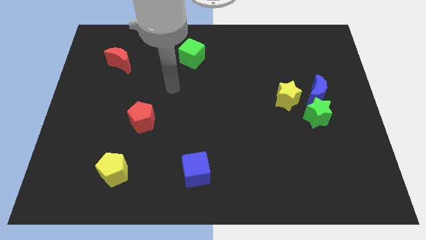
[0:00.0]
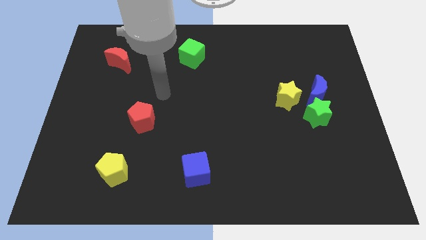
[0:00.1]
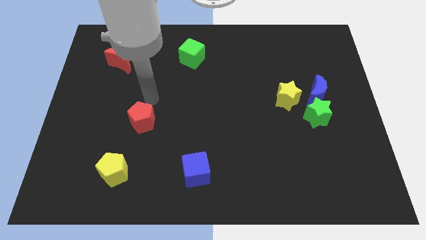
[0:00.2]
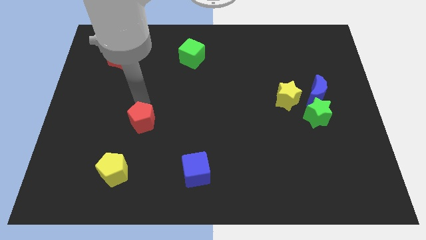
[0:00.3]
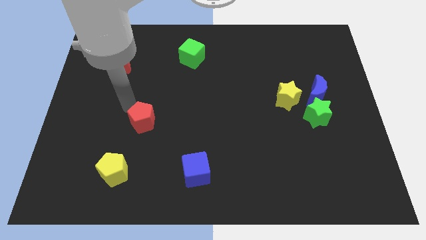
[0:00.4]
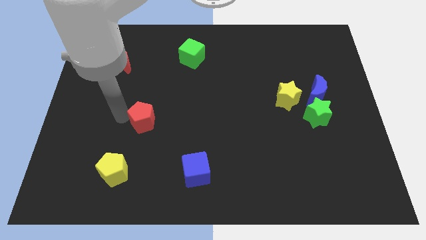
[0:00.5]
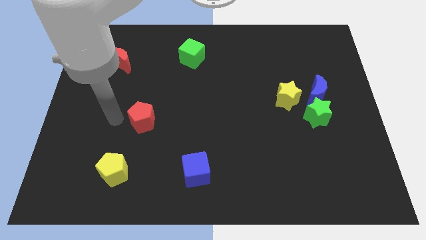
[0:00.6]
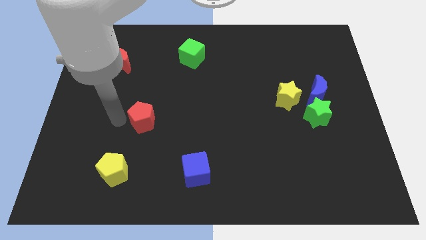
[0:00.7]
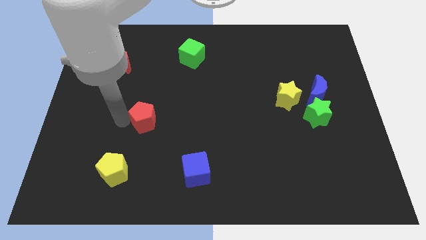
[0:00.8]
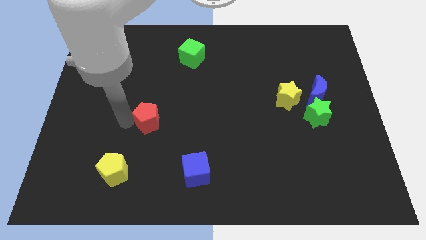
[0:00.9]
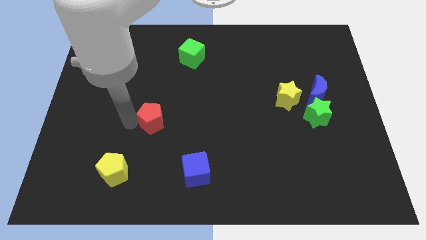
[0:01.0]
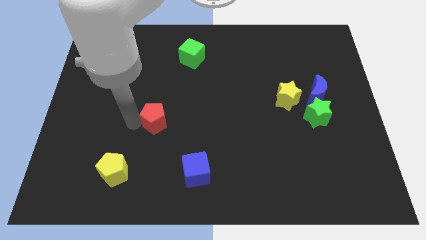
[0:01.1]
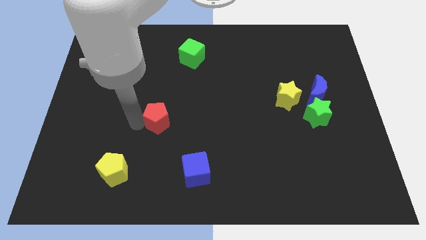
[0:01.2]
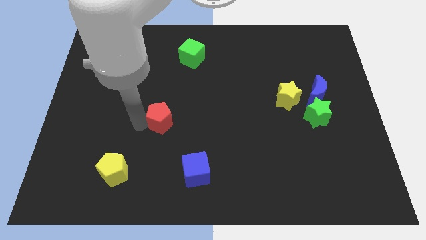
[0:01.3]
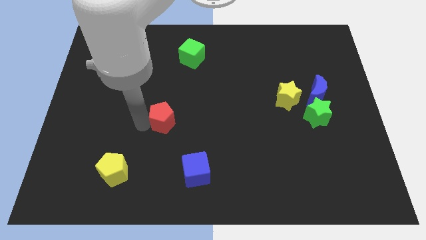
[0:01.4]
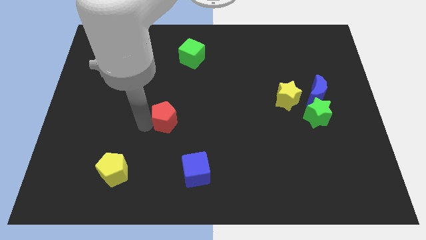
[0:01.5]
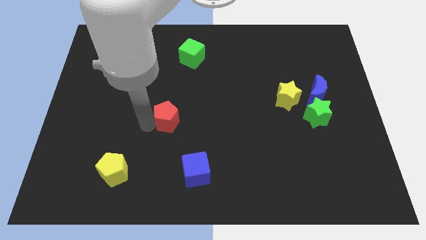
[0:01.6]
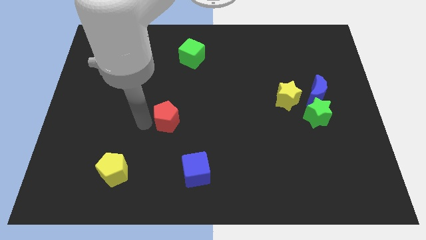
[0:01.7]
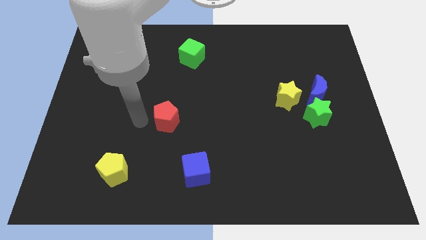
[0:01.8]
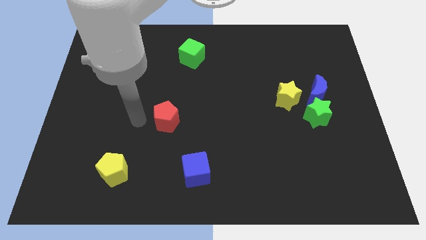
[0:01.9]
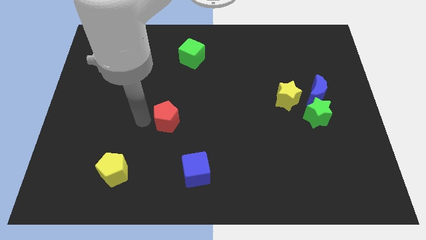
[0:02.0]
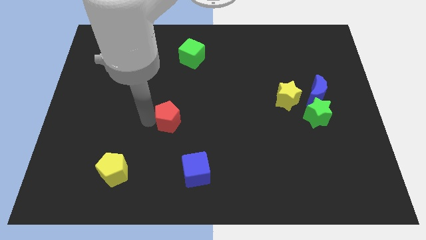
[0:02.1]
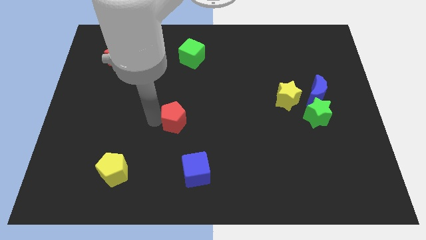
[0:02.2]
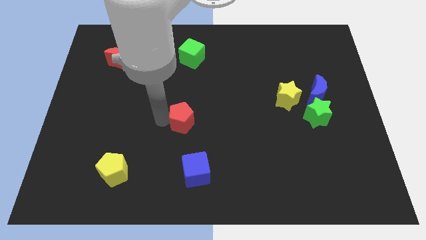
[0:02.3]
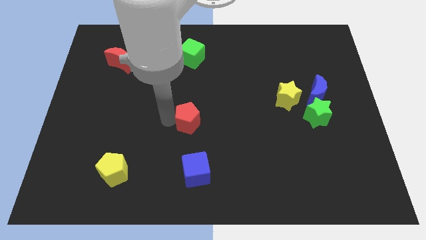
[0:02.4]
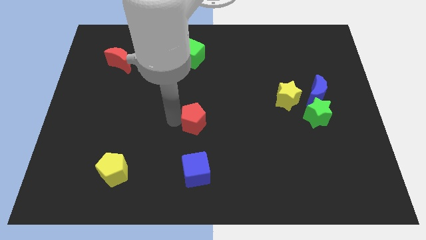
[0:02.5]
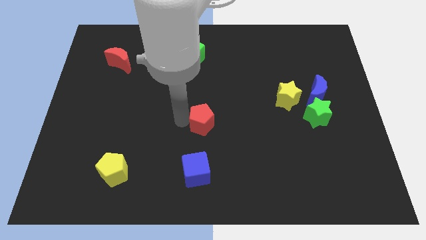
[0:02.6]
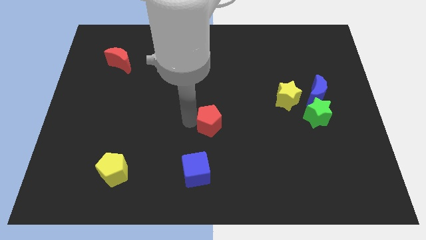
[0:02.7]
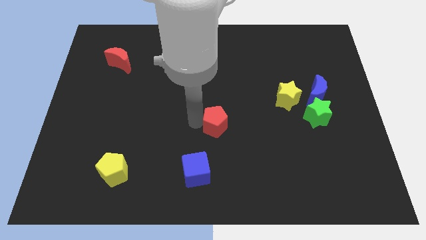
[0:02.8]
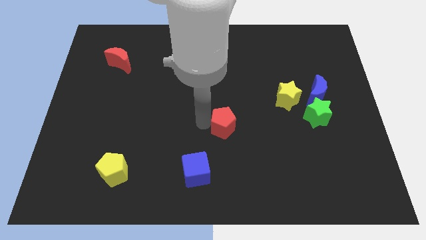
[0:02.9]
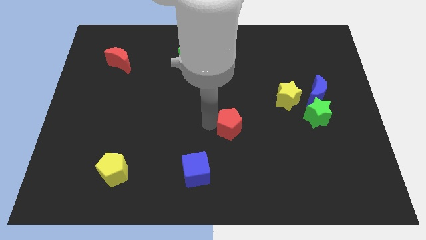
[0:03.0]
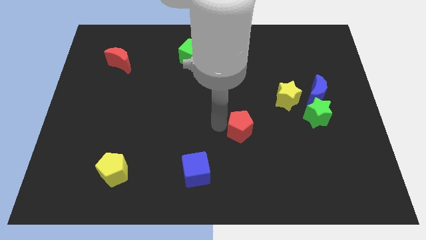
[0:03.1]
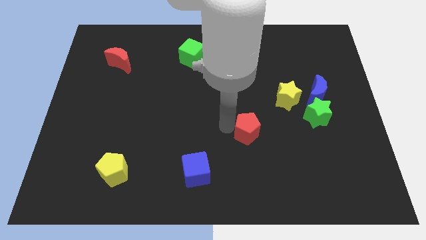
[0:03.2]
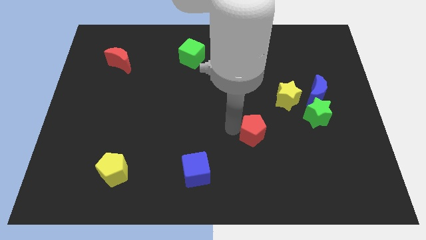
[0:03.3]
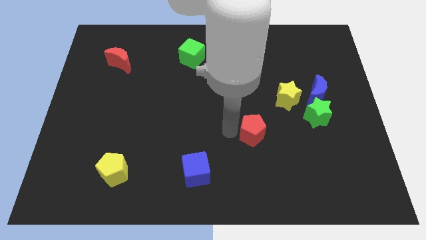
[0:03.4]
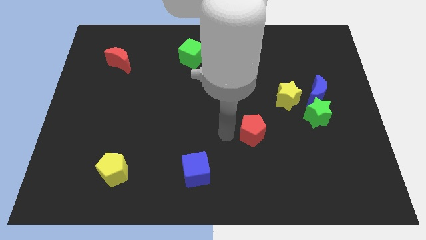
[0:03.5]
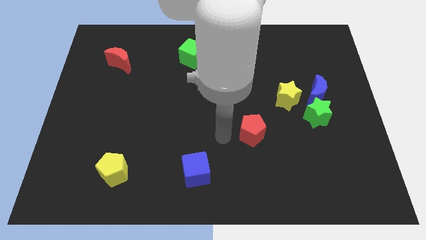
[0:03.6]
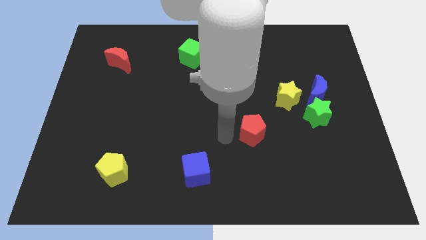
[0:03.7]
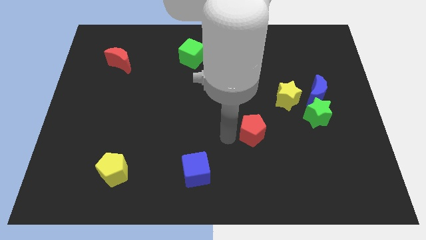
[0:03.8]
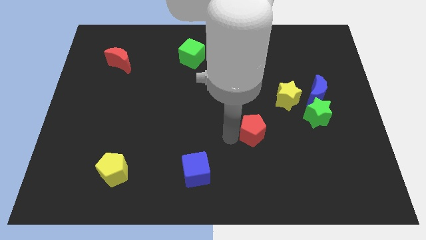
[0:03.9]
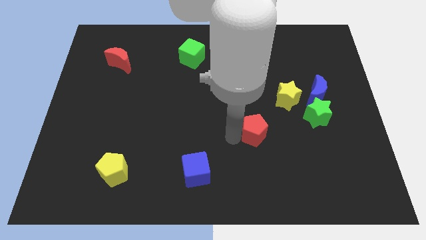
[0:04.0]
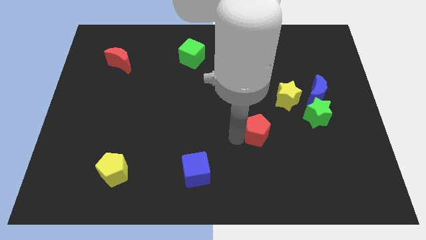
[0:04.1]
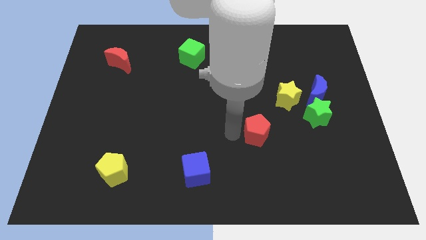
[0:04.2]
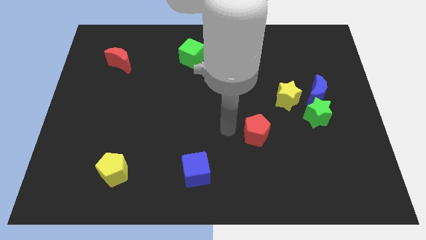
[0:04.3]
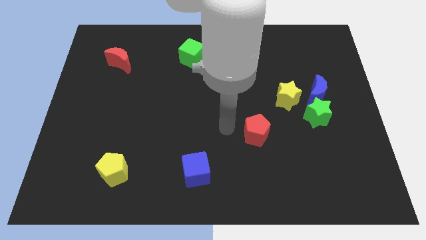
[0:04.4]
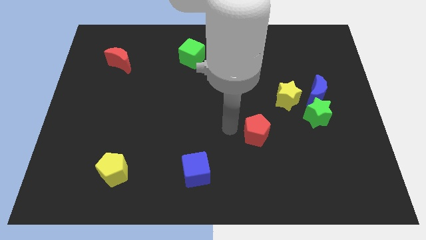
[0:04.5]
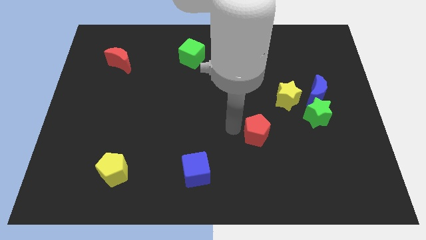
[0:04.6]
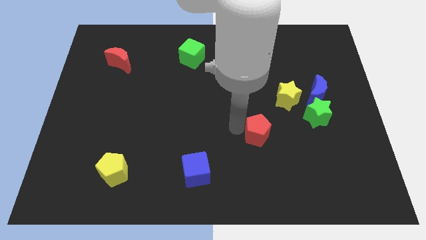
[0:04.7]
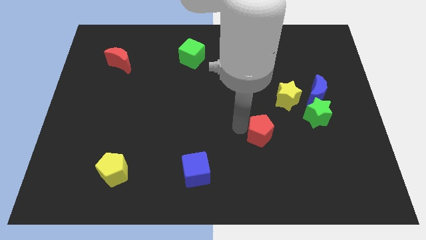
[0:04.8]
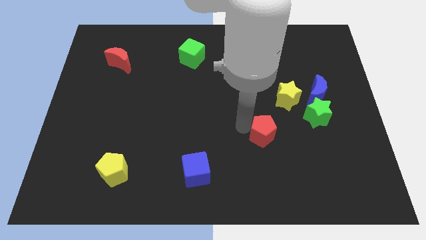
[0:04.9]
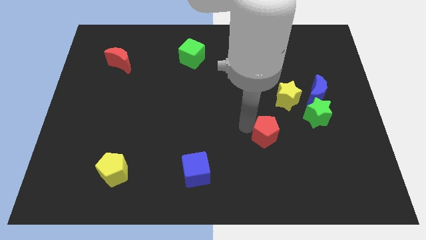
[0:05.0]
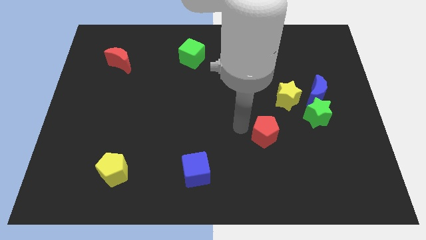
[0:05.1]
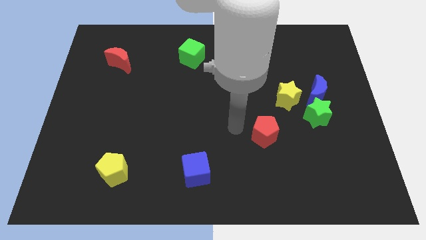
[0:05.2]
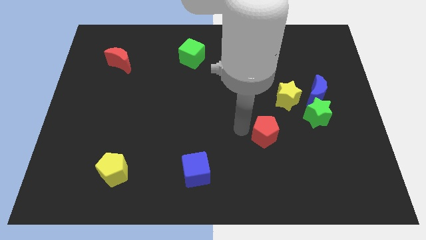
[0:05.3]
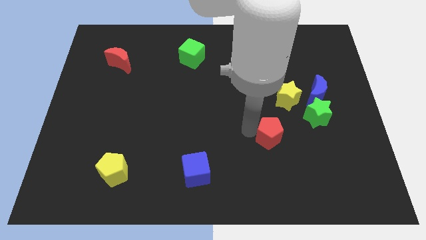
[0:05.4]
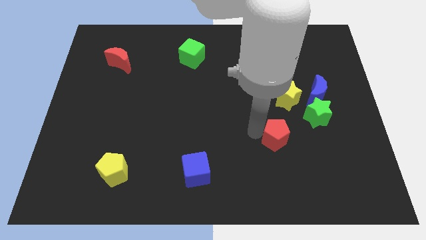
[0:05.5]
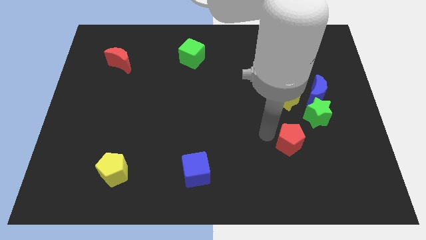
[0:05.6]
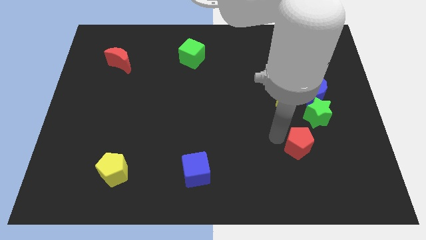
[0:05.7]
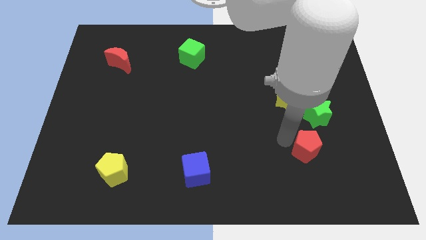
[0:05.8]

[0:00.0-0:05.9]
put the red pentagon to the bottom of the green star

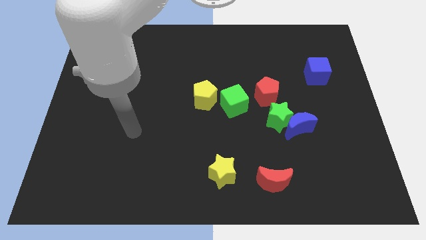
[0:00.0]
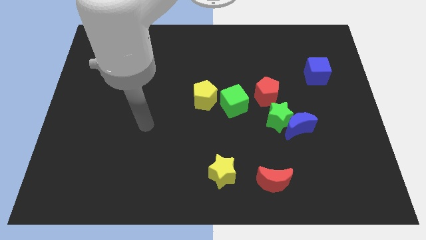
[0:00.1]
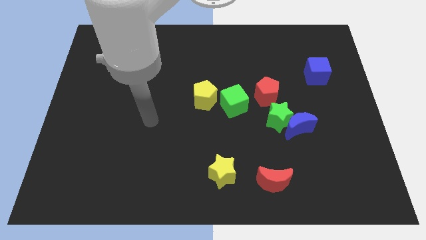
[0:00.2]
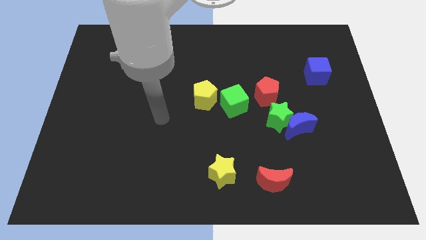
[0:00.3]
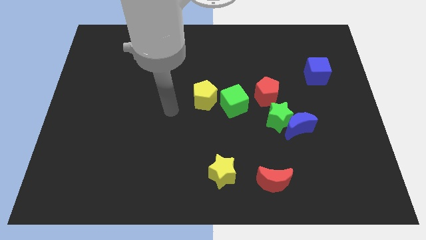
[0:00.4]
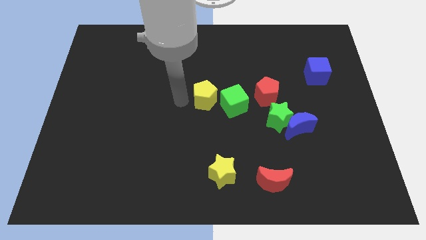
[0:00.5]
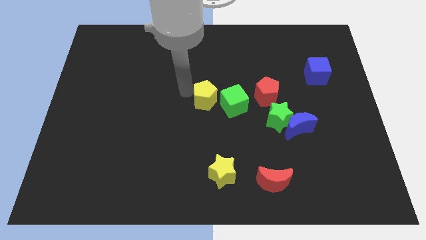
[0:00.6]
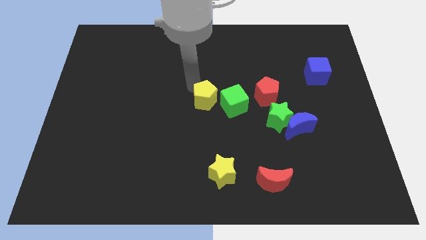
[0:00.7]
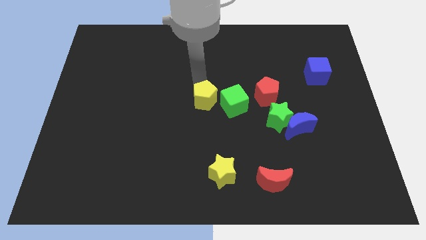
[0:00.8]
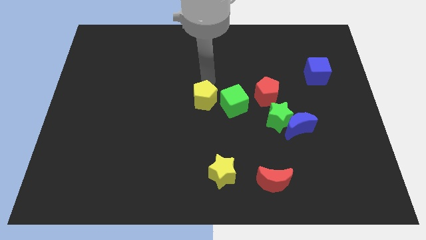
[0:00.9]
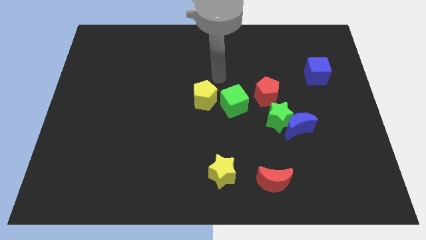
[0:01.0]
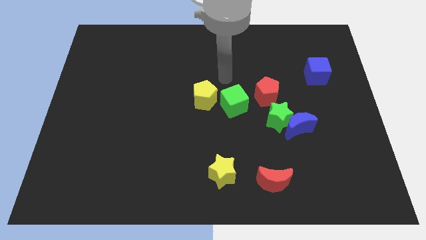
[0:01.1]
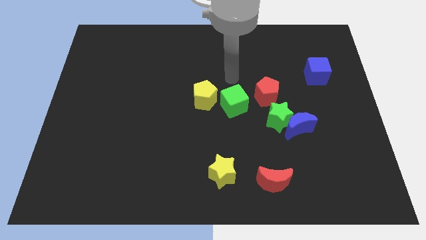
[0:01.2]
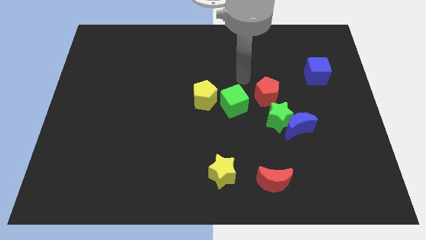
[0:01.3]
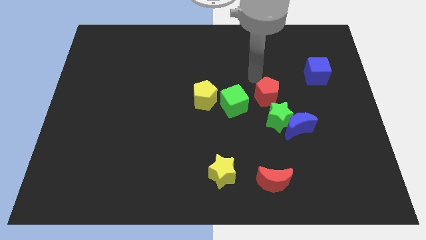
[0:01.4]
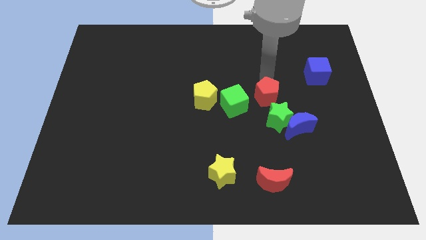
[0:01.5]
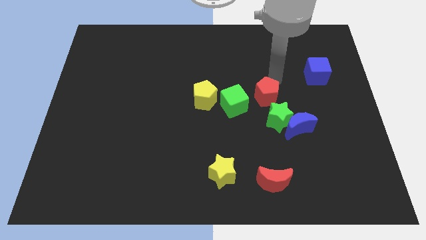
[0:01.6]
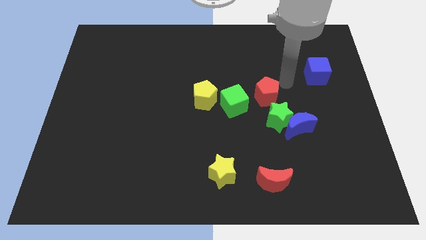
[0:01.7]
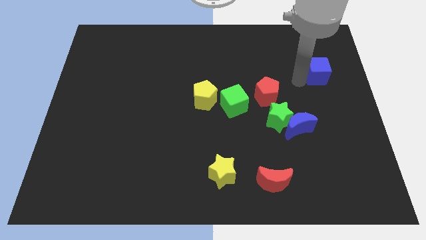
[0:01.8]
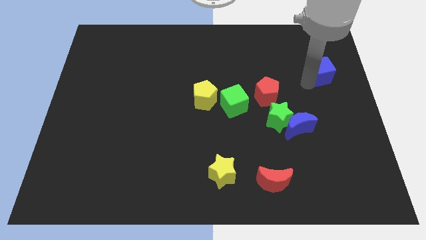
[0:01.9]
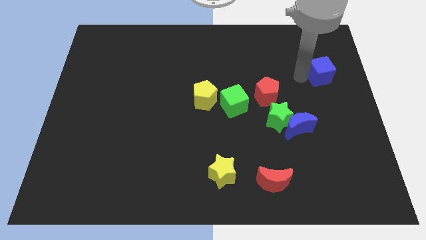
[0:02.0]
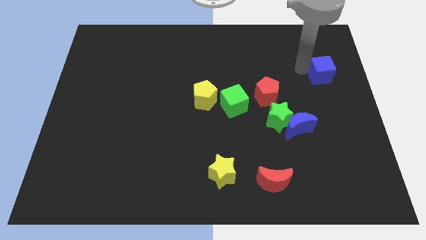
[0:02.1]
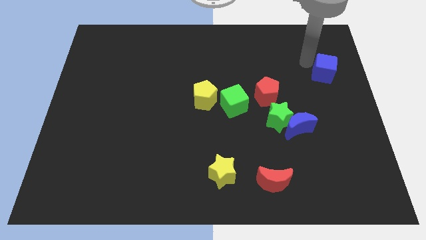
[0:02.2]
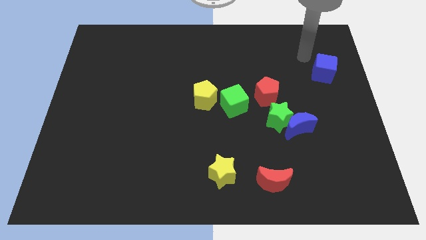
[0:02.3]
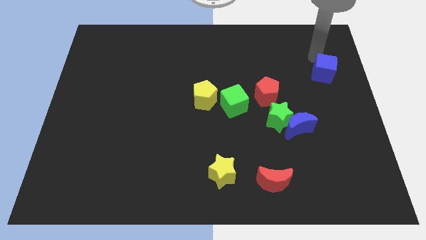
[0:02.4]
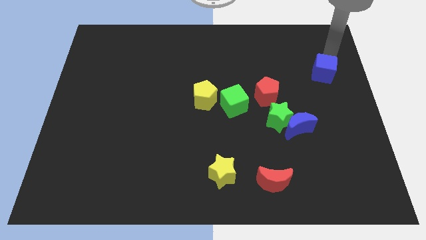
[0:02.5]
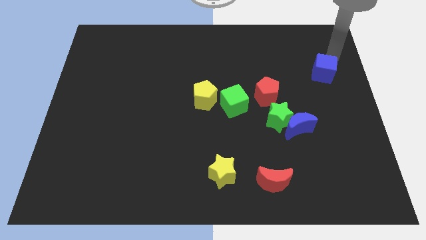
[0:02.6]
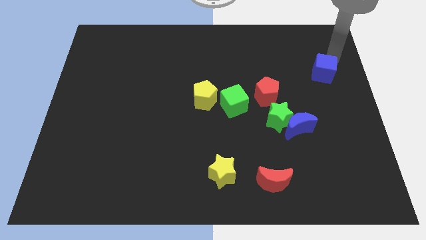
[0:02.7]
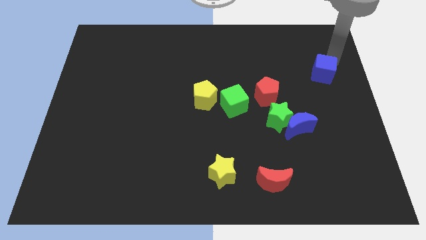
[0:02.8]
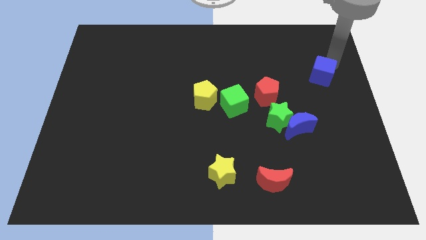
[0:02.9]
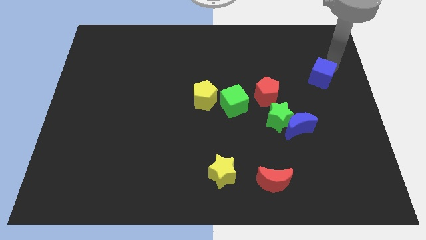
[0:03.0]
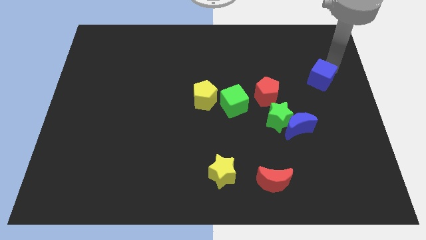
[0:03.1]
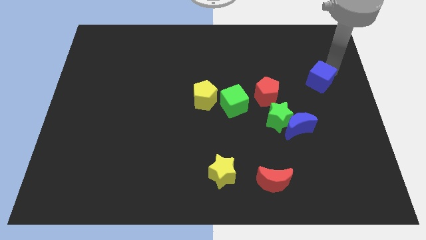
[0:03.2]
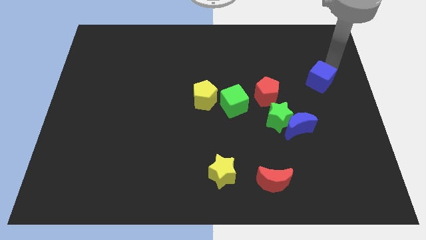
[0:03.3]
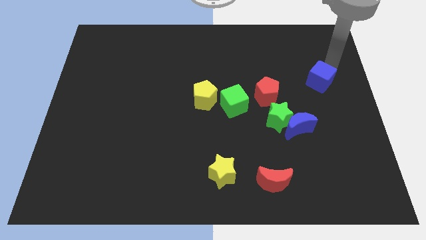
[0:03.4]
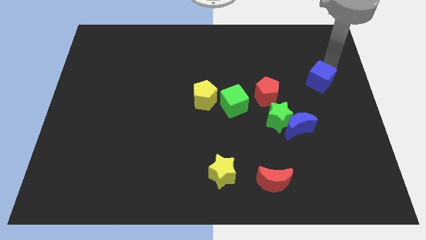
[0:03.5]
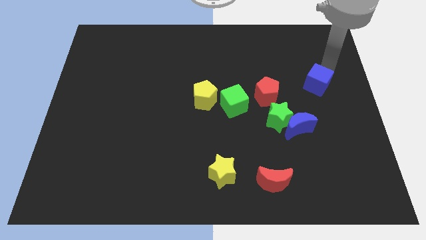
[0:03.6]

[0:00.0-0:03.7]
put the blue cube just right of the red pentagon
